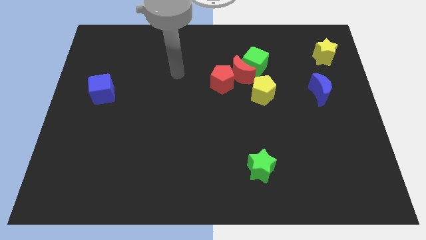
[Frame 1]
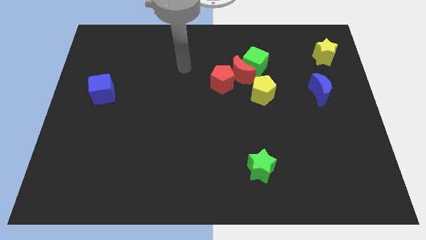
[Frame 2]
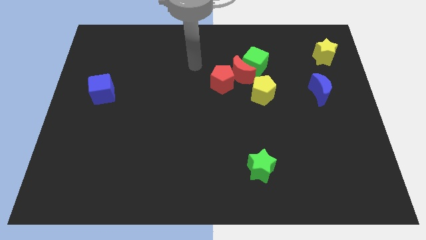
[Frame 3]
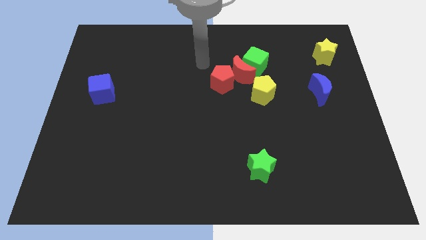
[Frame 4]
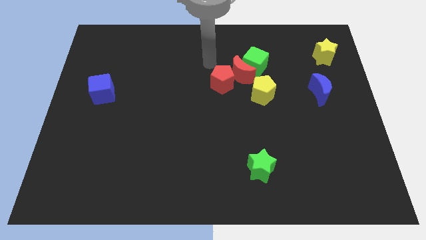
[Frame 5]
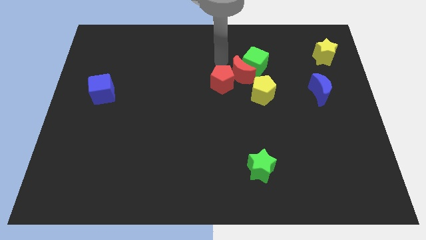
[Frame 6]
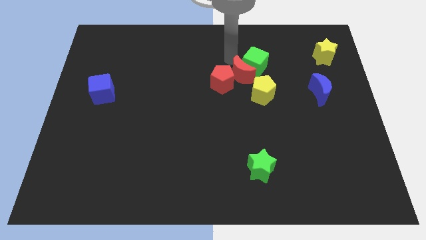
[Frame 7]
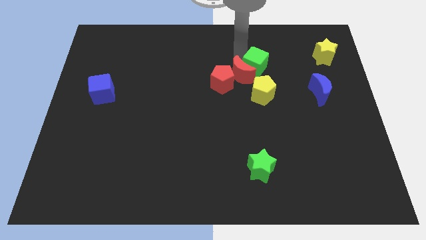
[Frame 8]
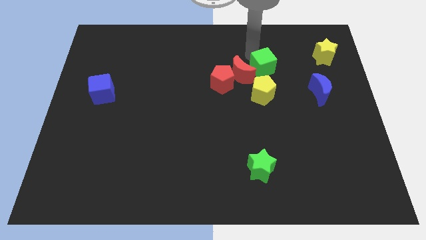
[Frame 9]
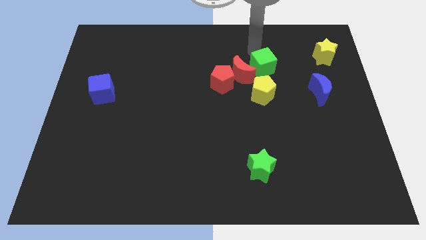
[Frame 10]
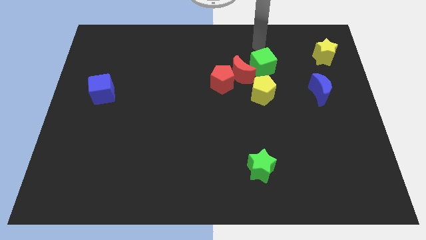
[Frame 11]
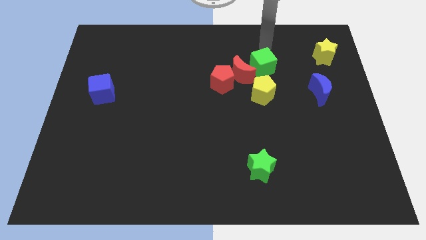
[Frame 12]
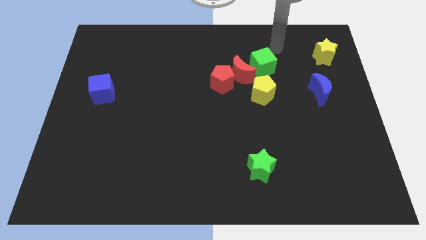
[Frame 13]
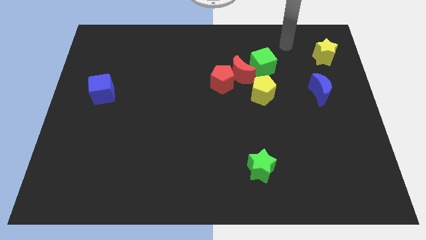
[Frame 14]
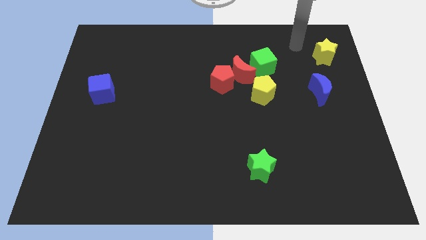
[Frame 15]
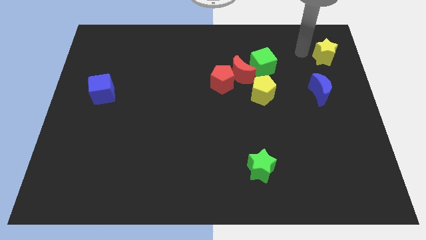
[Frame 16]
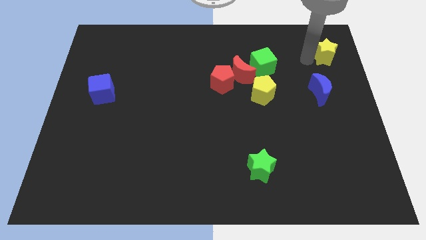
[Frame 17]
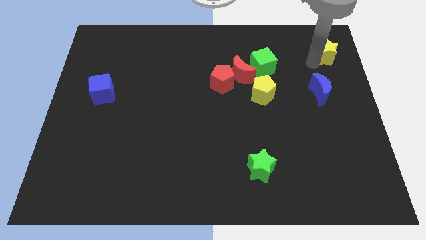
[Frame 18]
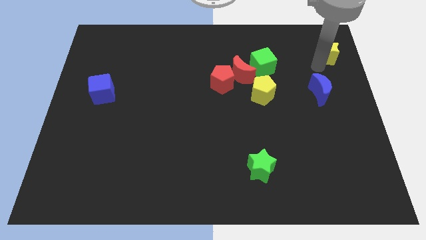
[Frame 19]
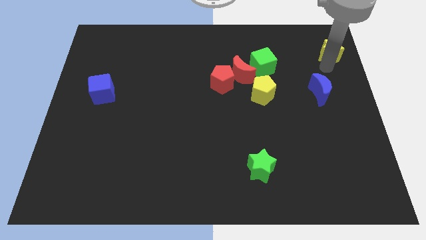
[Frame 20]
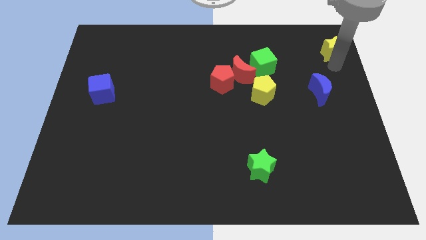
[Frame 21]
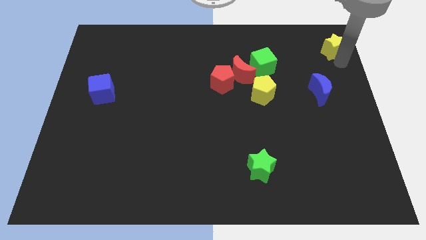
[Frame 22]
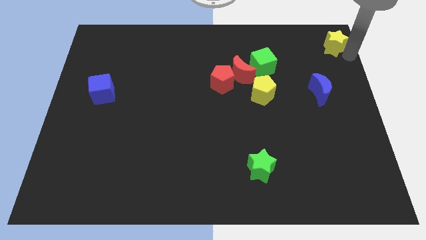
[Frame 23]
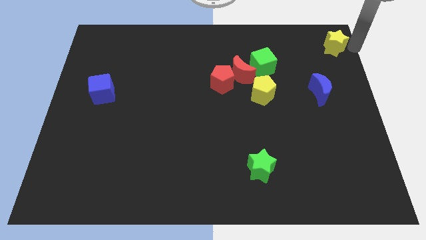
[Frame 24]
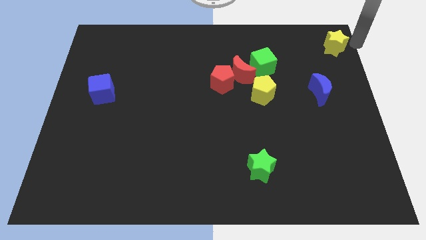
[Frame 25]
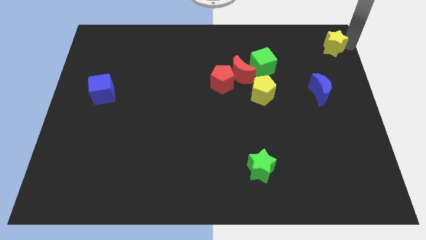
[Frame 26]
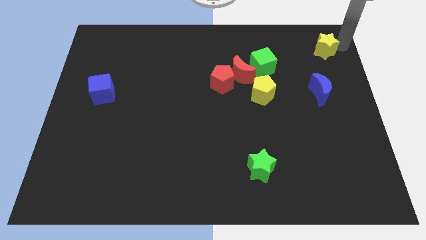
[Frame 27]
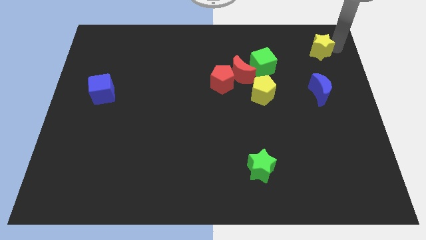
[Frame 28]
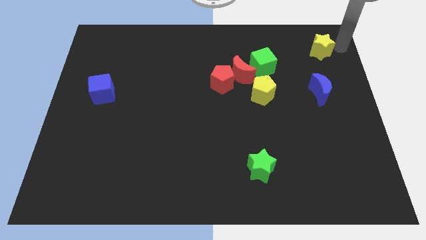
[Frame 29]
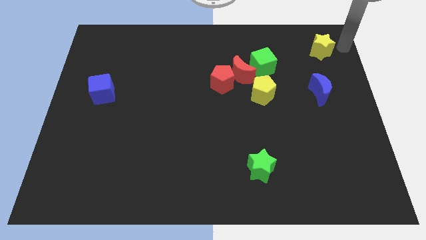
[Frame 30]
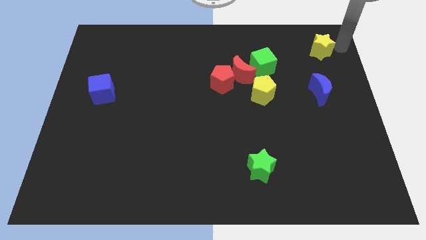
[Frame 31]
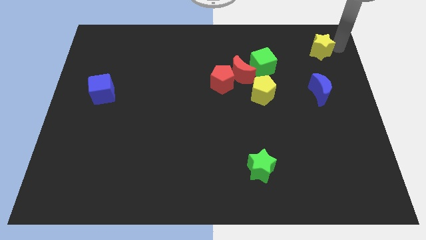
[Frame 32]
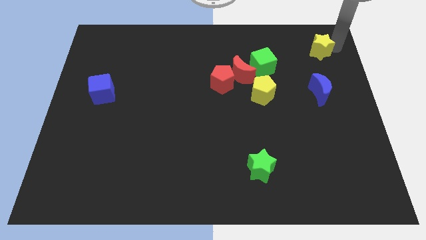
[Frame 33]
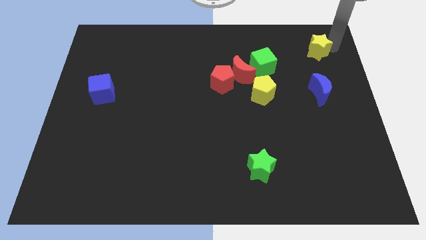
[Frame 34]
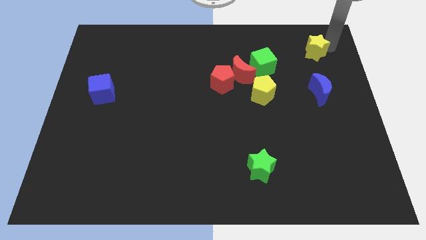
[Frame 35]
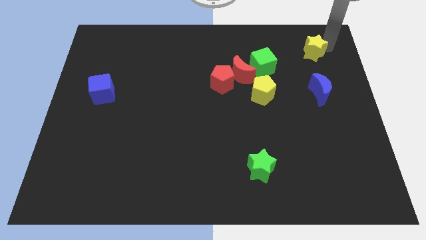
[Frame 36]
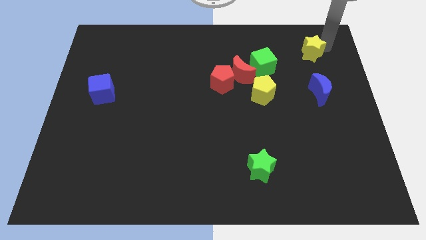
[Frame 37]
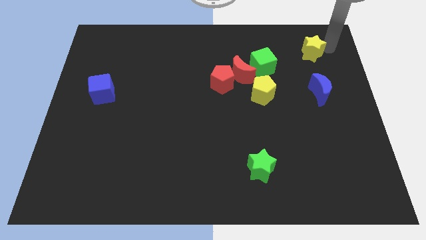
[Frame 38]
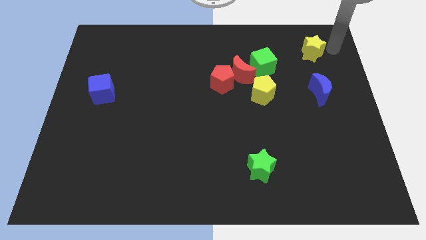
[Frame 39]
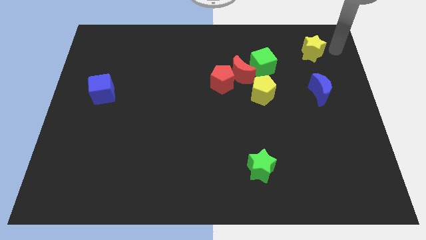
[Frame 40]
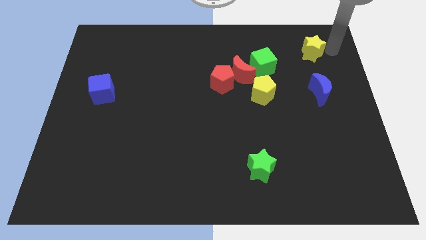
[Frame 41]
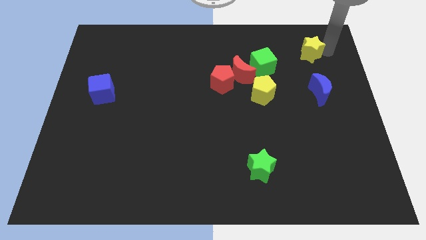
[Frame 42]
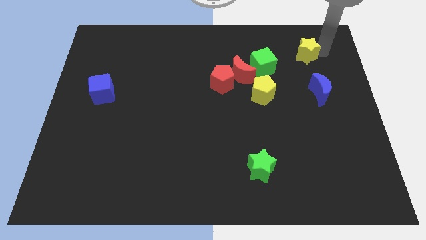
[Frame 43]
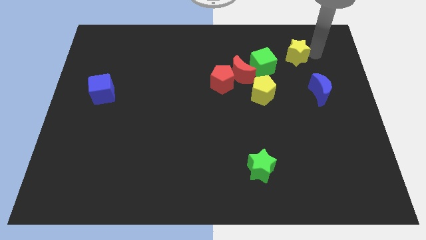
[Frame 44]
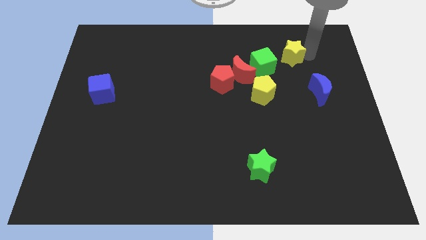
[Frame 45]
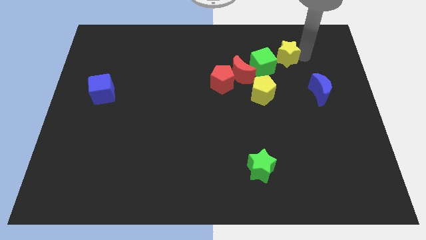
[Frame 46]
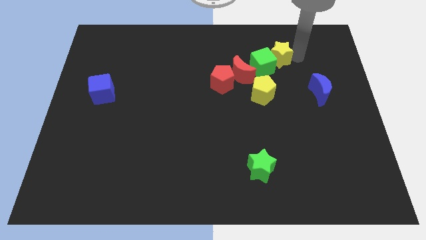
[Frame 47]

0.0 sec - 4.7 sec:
move the yellow star to the top right side of the red moon

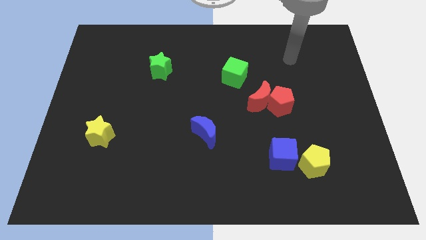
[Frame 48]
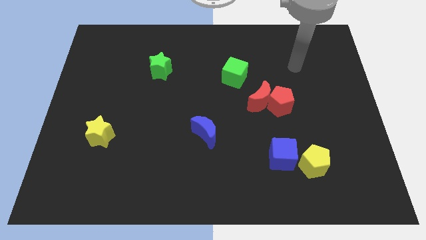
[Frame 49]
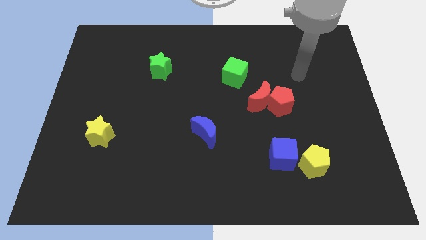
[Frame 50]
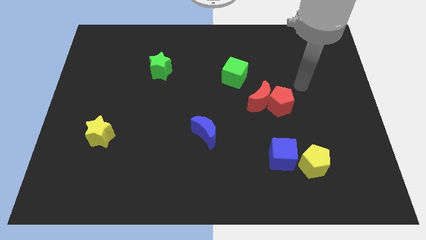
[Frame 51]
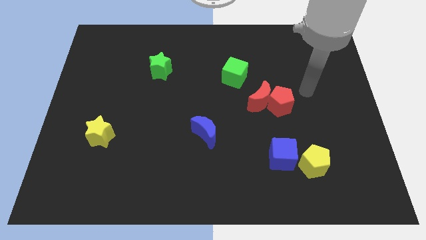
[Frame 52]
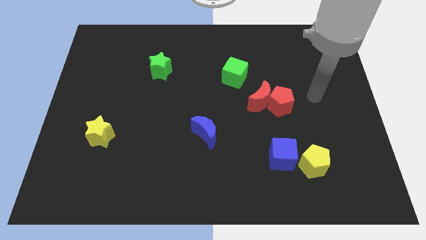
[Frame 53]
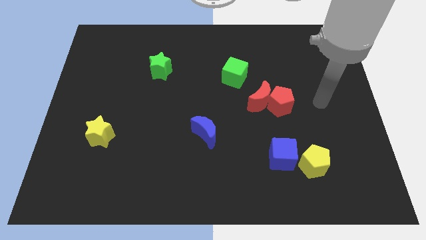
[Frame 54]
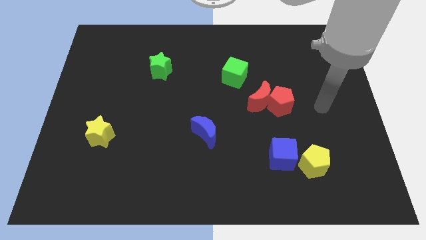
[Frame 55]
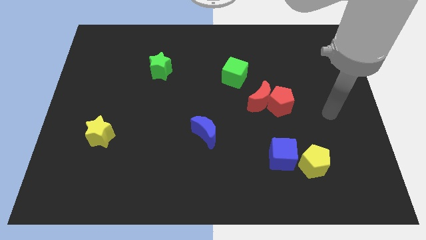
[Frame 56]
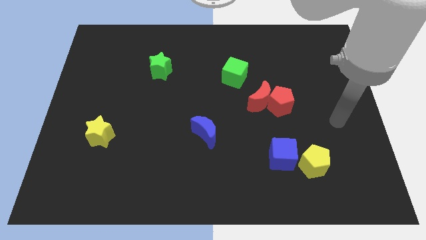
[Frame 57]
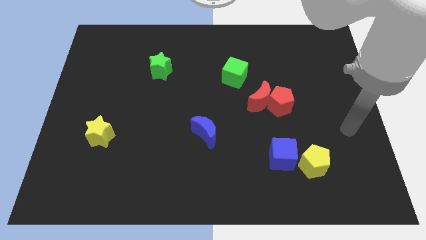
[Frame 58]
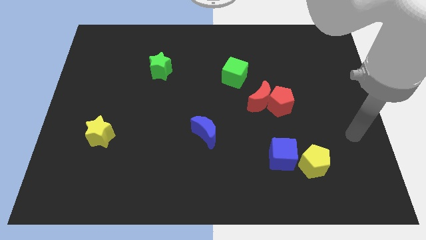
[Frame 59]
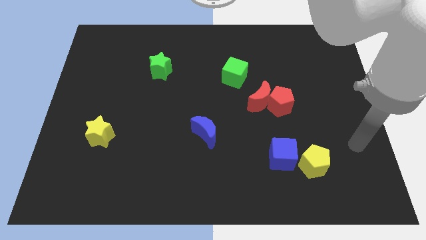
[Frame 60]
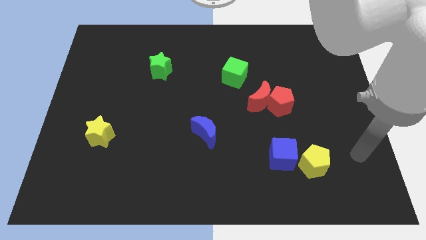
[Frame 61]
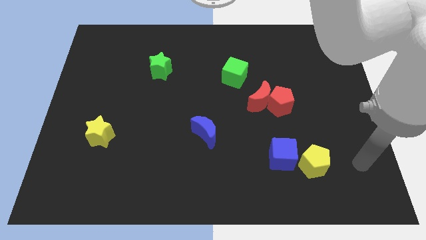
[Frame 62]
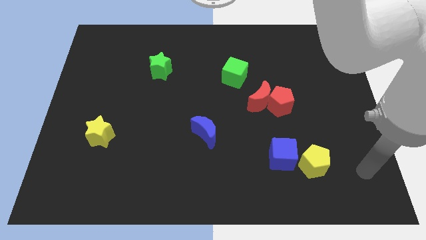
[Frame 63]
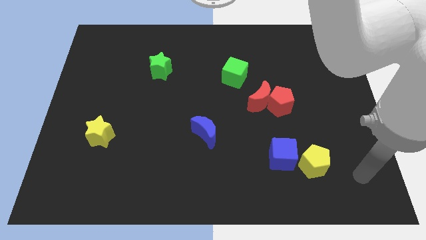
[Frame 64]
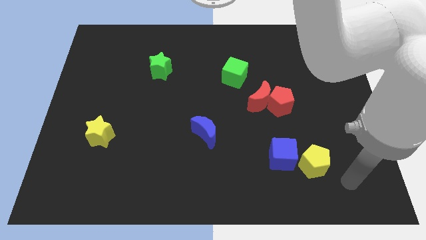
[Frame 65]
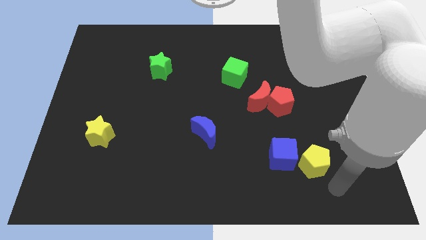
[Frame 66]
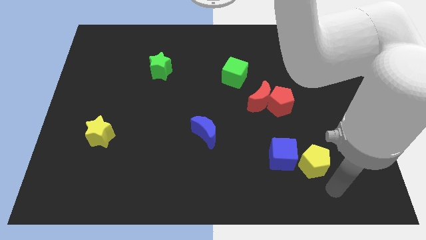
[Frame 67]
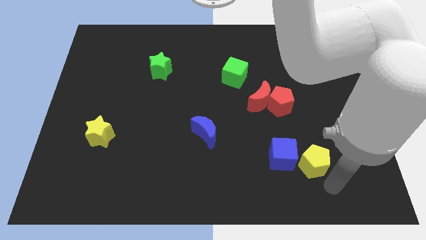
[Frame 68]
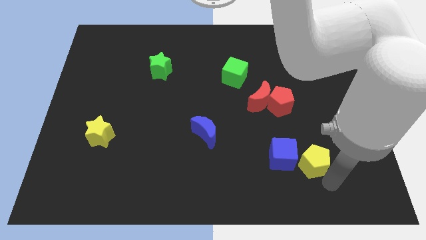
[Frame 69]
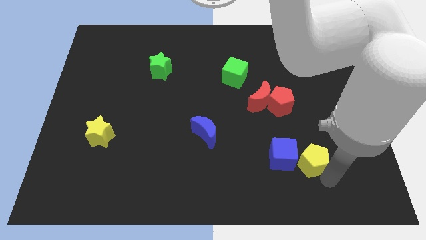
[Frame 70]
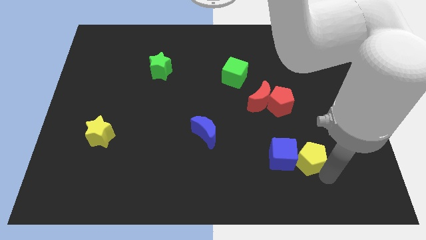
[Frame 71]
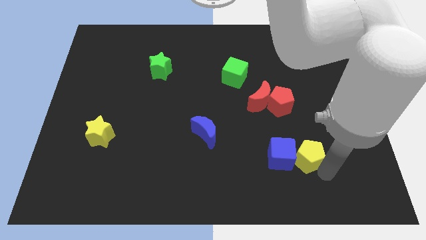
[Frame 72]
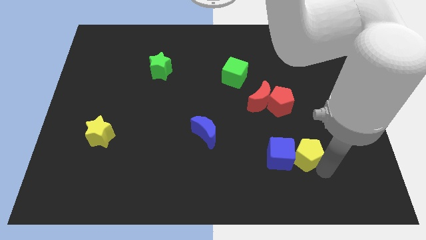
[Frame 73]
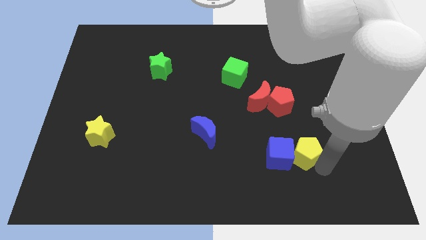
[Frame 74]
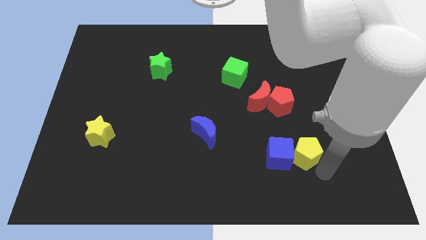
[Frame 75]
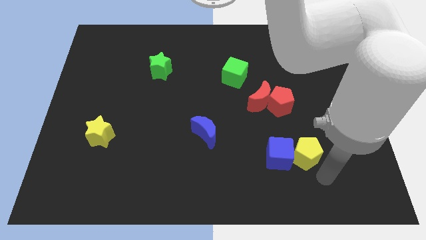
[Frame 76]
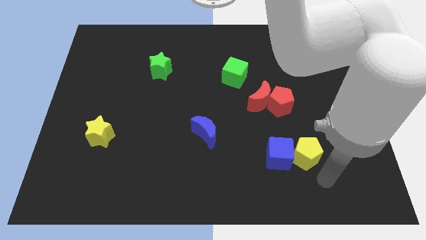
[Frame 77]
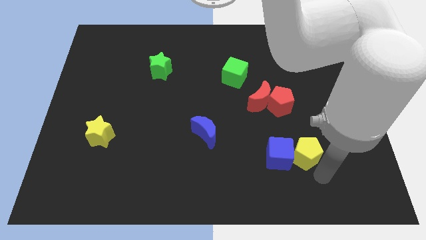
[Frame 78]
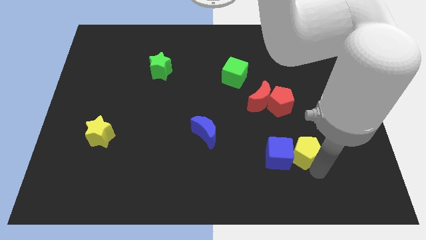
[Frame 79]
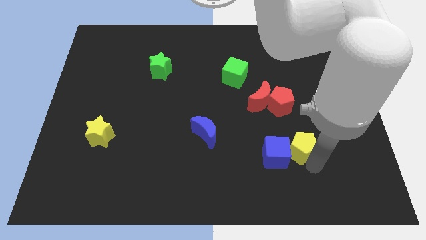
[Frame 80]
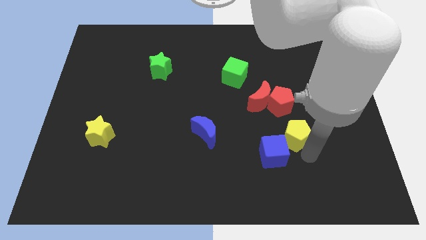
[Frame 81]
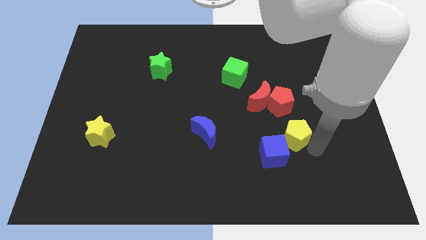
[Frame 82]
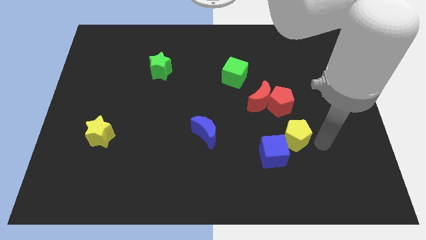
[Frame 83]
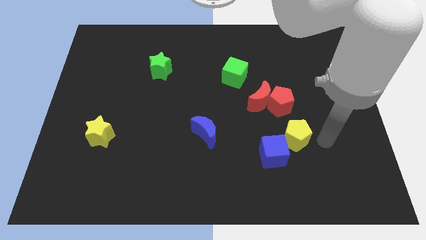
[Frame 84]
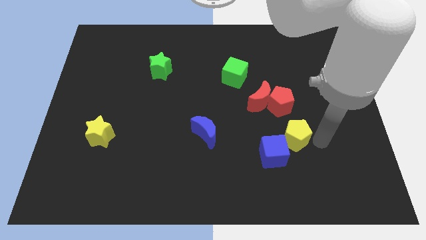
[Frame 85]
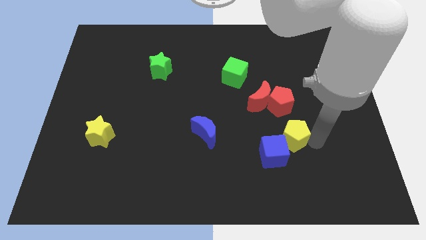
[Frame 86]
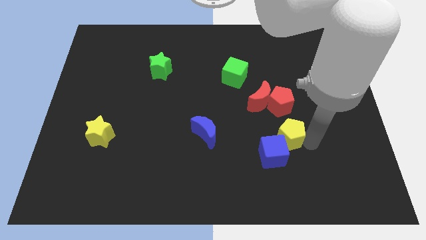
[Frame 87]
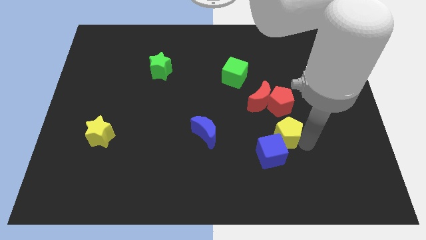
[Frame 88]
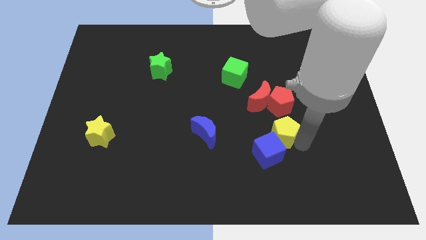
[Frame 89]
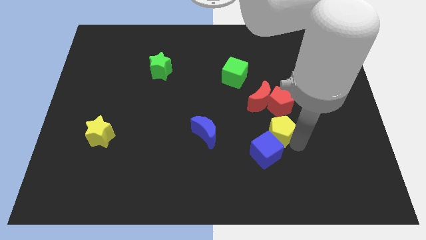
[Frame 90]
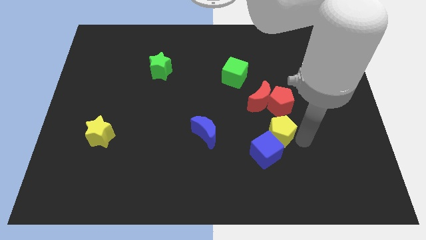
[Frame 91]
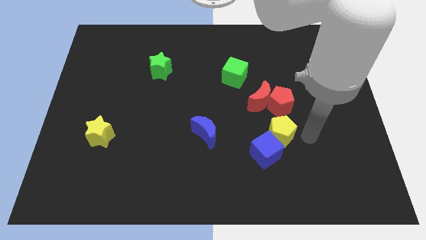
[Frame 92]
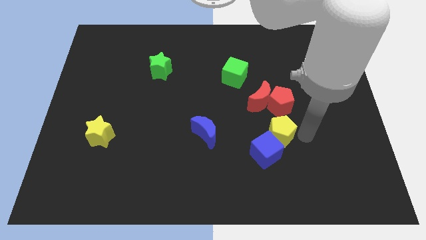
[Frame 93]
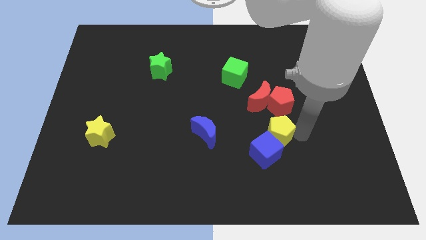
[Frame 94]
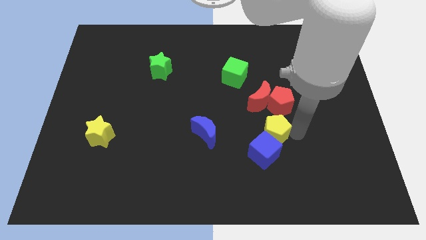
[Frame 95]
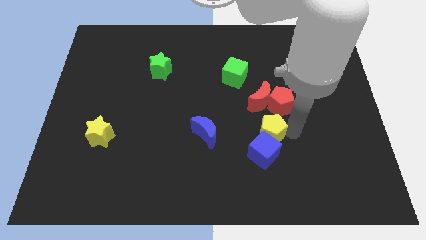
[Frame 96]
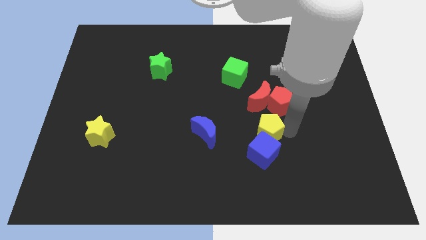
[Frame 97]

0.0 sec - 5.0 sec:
move the yellow pentagon to the top left of the blue cube
